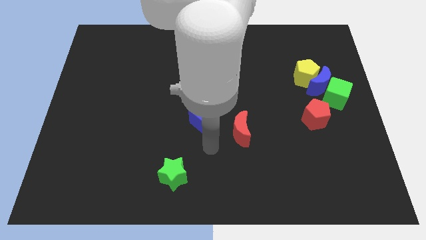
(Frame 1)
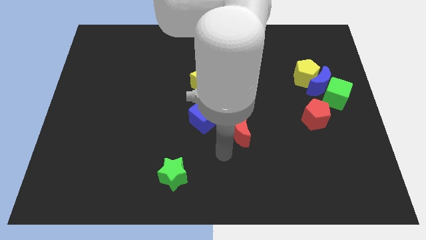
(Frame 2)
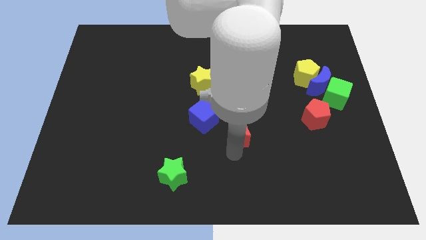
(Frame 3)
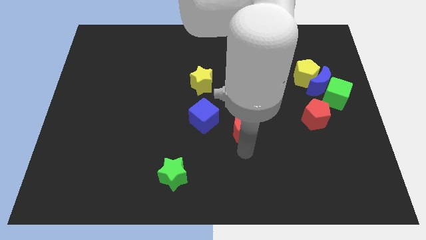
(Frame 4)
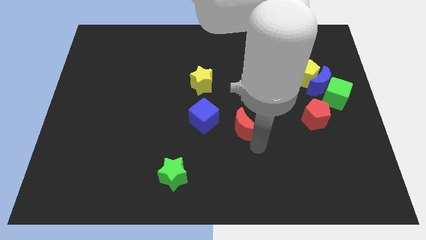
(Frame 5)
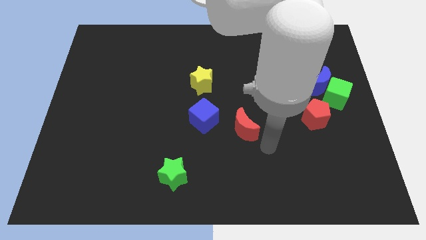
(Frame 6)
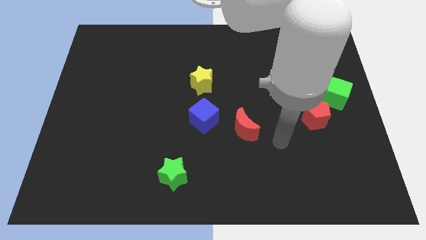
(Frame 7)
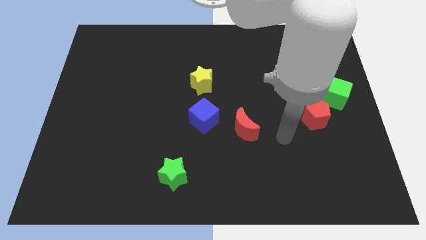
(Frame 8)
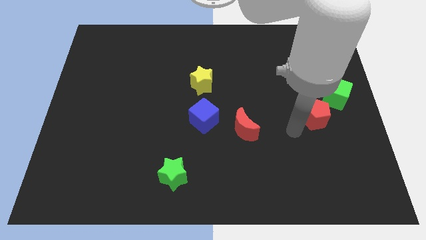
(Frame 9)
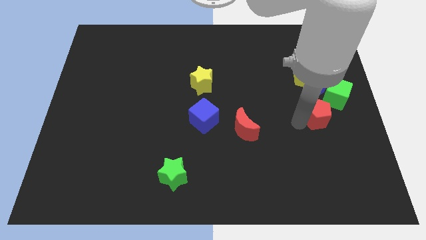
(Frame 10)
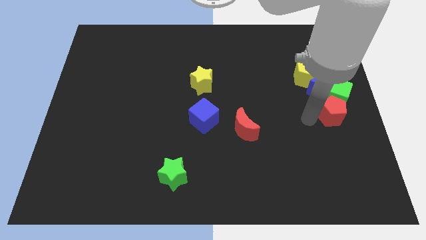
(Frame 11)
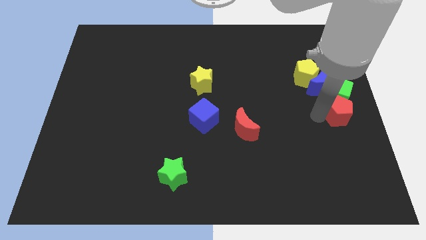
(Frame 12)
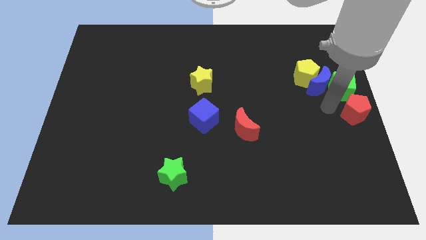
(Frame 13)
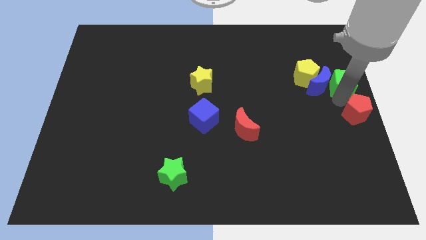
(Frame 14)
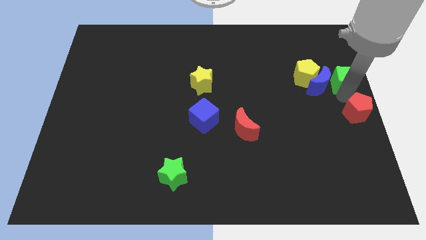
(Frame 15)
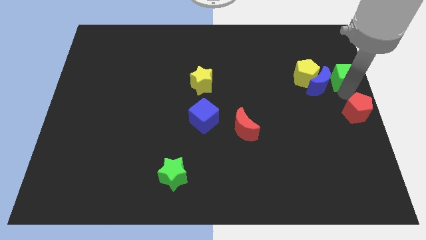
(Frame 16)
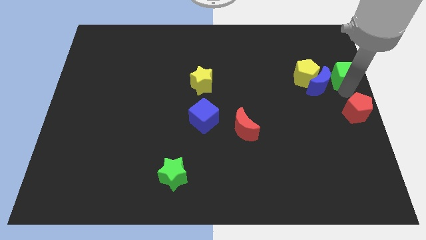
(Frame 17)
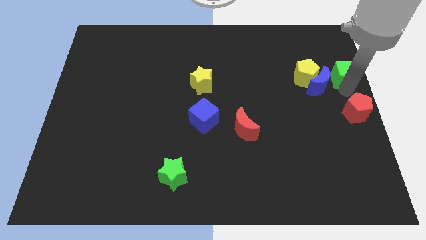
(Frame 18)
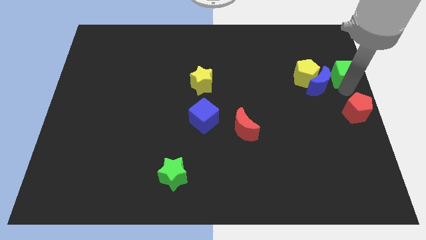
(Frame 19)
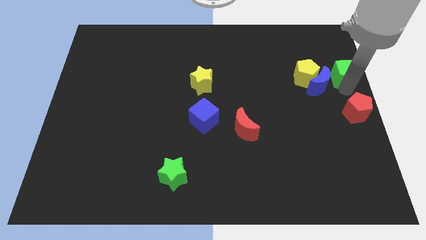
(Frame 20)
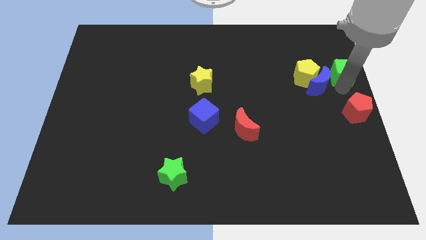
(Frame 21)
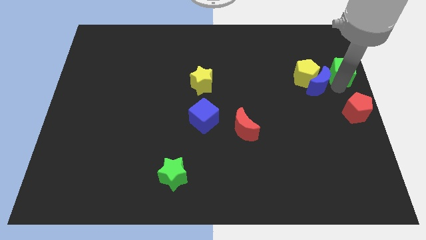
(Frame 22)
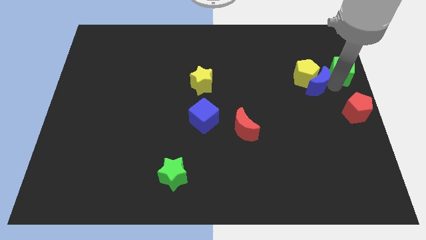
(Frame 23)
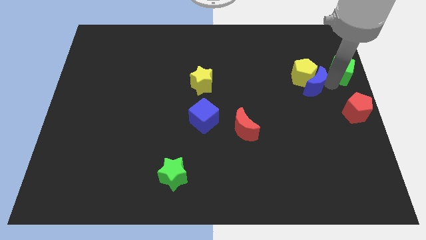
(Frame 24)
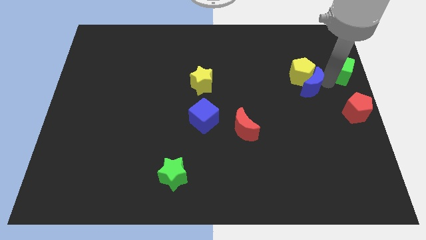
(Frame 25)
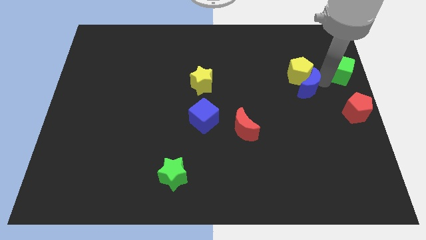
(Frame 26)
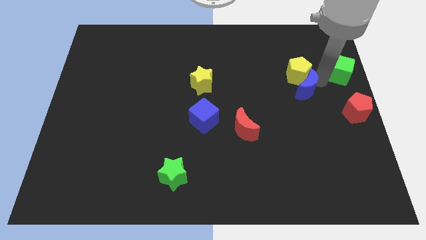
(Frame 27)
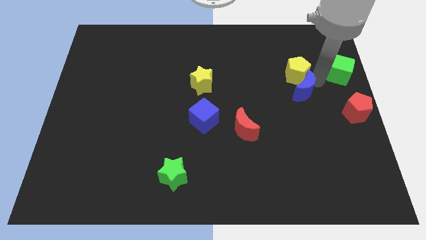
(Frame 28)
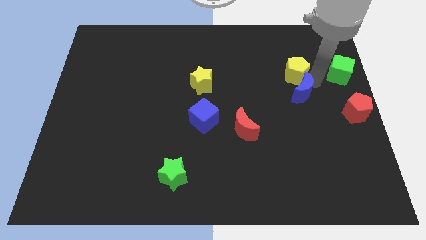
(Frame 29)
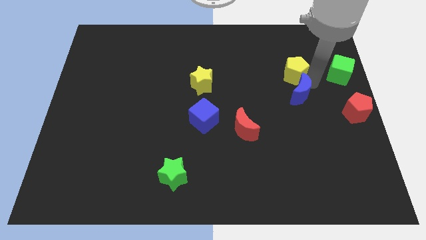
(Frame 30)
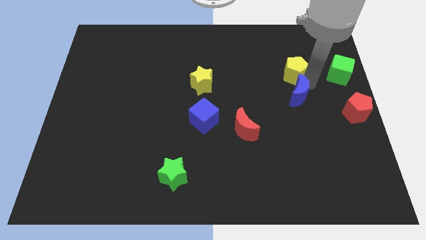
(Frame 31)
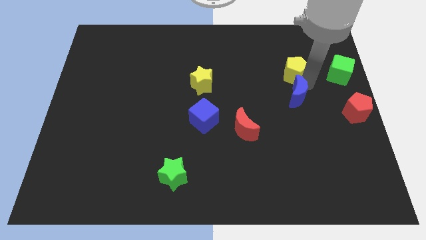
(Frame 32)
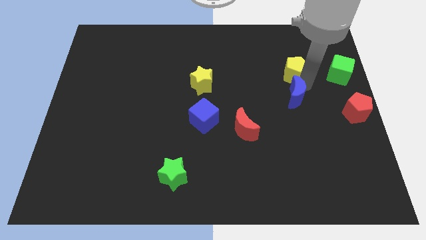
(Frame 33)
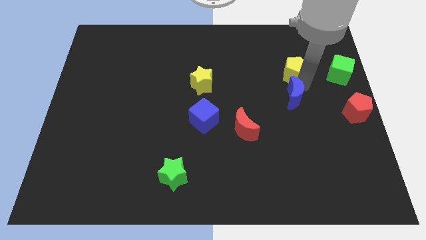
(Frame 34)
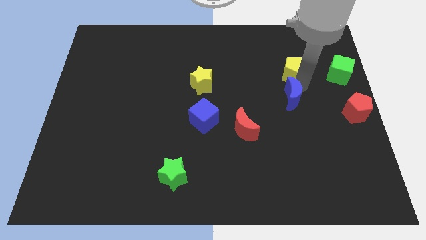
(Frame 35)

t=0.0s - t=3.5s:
pull the blue moon apart from the yellow pentagon, green cube, and red pentagon

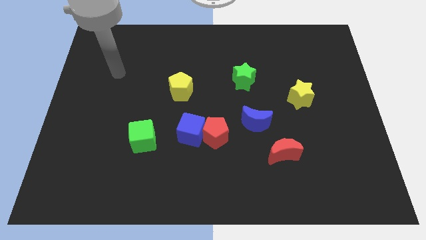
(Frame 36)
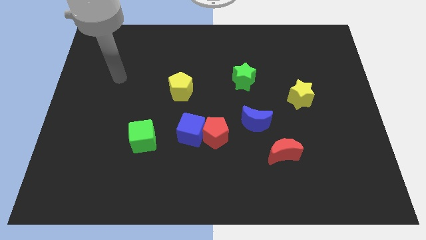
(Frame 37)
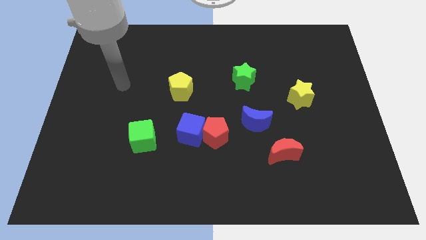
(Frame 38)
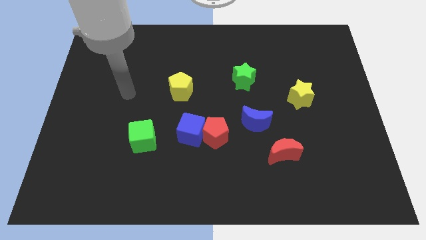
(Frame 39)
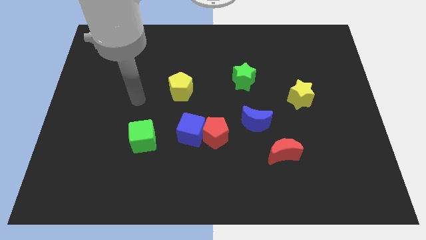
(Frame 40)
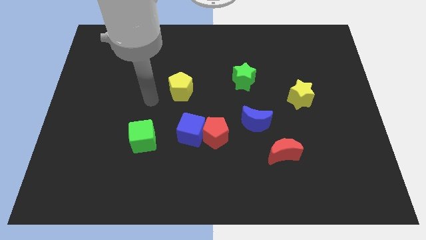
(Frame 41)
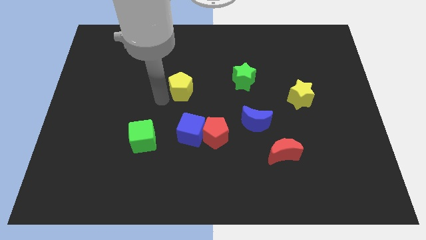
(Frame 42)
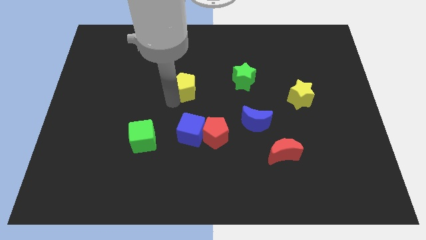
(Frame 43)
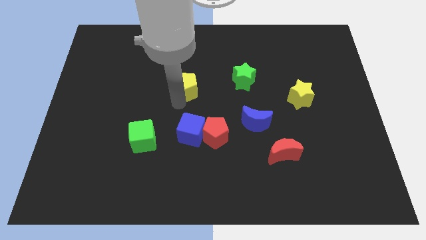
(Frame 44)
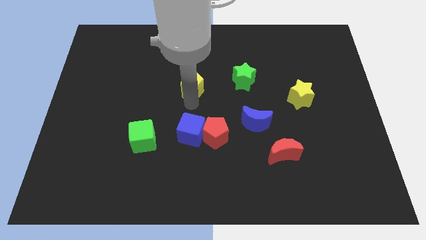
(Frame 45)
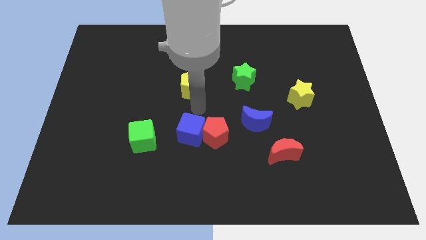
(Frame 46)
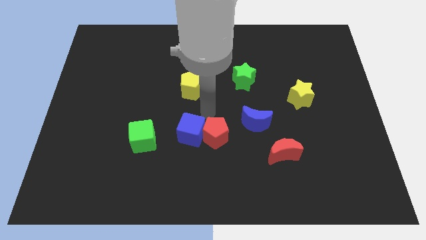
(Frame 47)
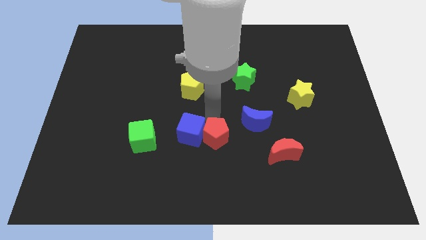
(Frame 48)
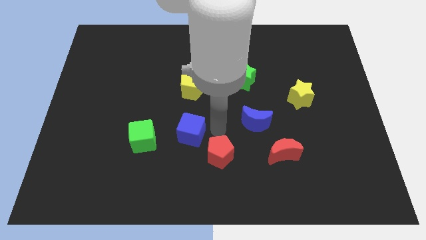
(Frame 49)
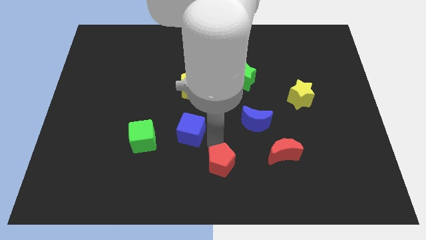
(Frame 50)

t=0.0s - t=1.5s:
separate the blue cube from the red pentagon

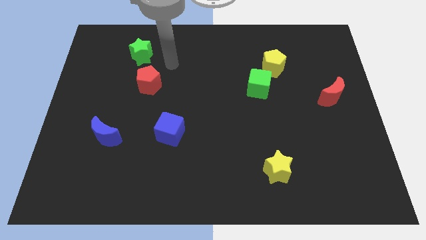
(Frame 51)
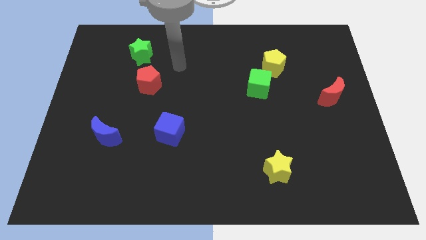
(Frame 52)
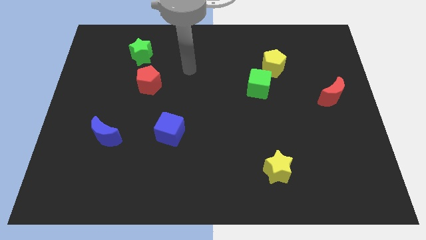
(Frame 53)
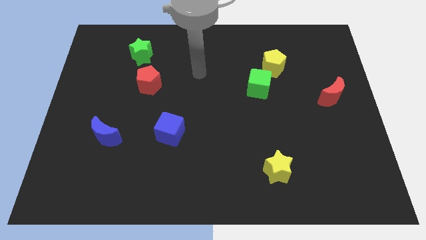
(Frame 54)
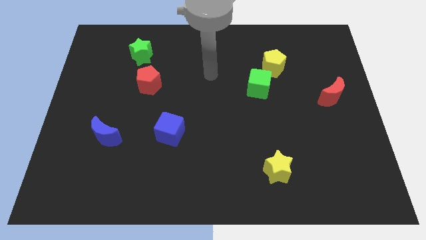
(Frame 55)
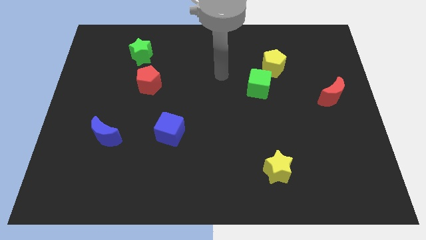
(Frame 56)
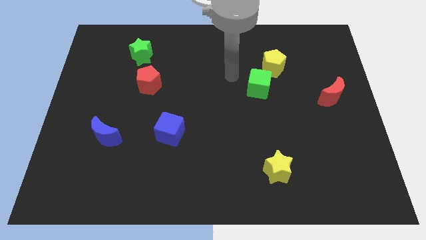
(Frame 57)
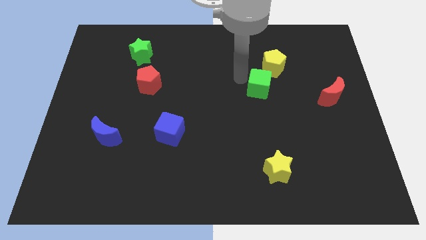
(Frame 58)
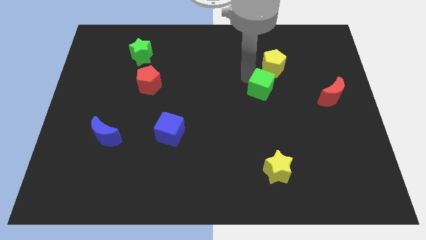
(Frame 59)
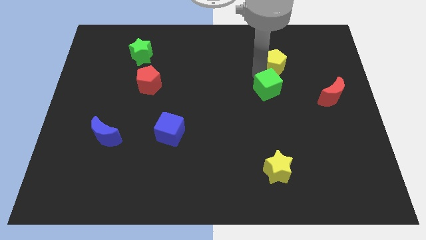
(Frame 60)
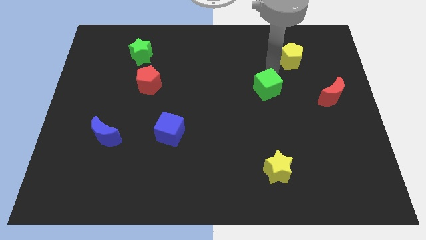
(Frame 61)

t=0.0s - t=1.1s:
move the green cube away from the yellow pentagon

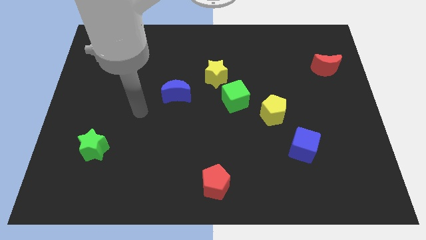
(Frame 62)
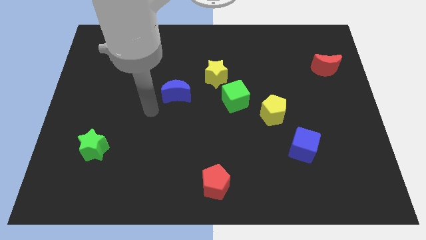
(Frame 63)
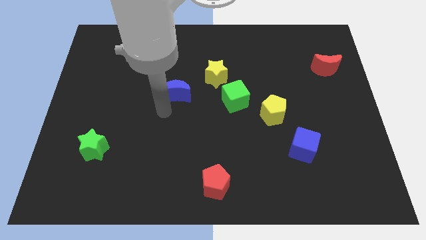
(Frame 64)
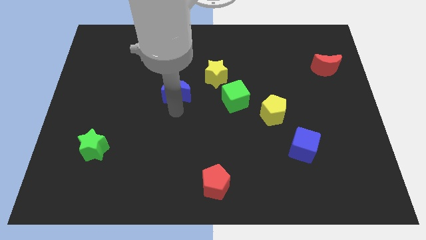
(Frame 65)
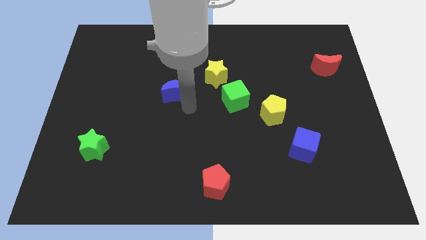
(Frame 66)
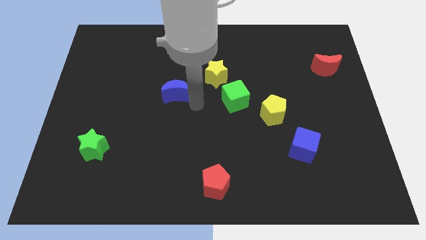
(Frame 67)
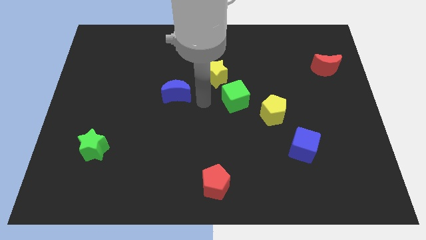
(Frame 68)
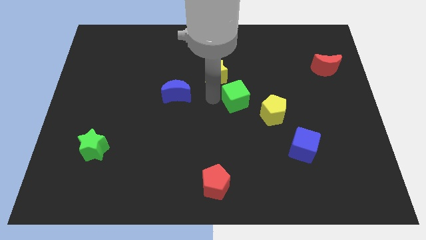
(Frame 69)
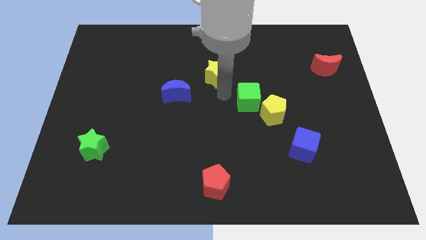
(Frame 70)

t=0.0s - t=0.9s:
pull the yellow star apart from the green cube

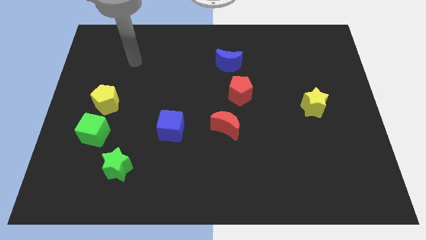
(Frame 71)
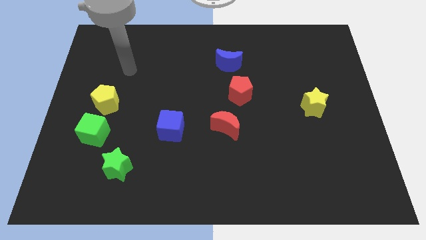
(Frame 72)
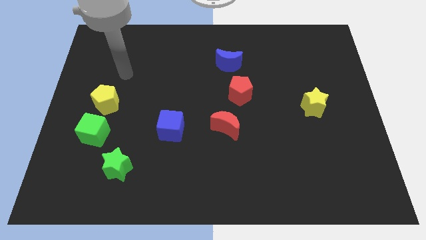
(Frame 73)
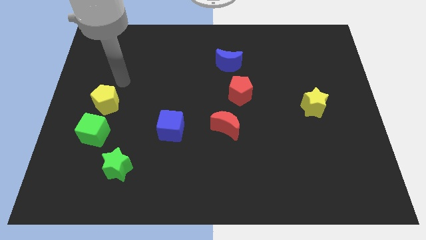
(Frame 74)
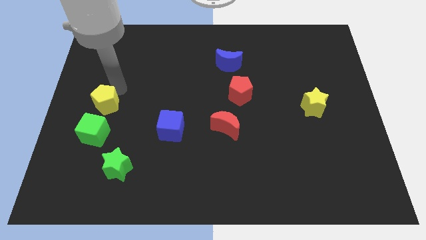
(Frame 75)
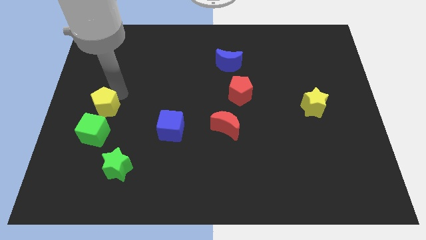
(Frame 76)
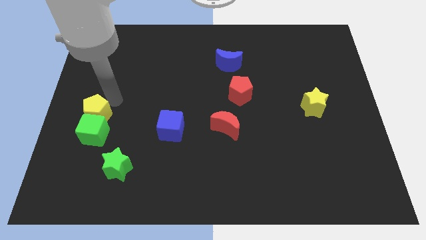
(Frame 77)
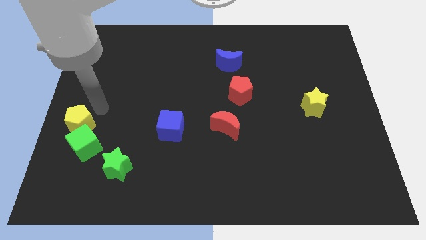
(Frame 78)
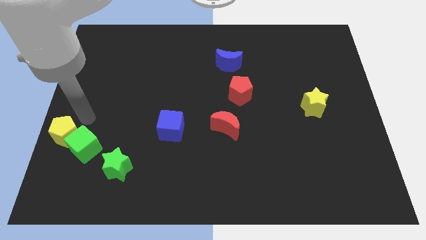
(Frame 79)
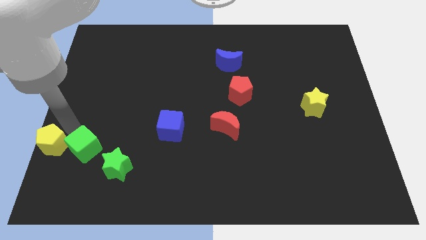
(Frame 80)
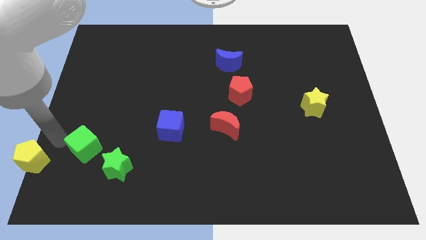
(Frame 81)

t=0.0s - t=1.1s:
separate the green cube from the yellow pentagon

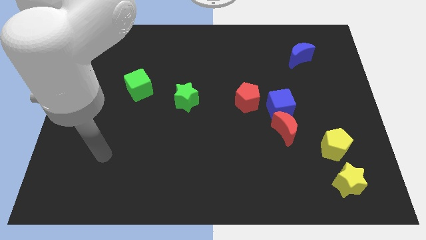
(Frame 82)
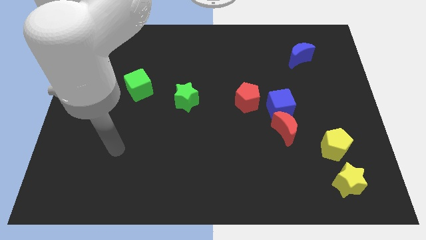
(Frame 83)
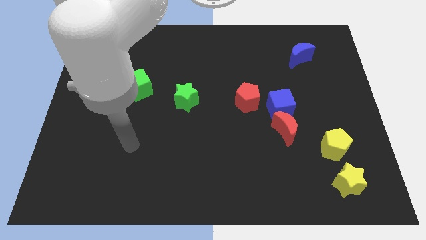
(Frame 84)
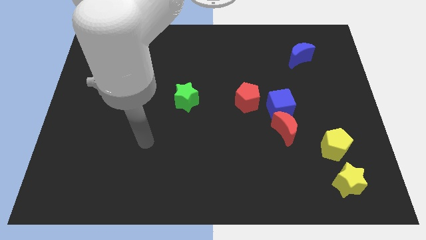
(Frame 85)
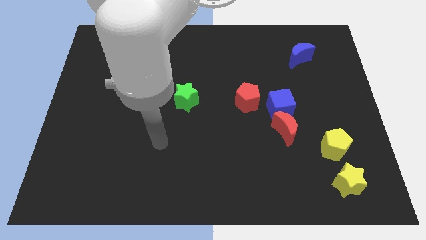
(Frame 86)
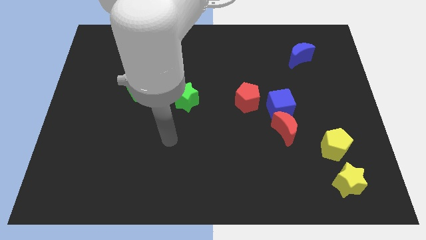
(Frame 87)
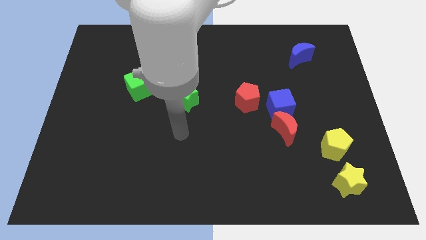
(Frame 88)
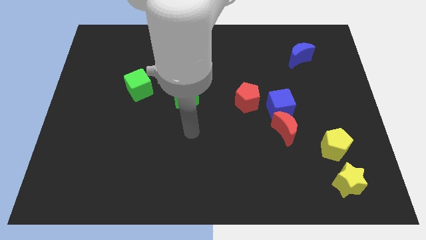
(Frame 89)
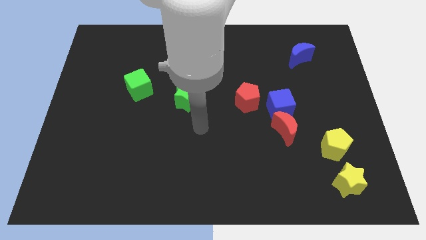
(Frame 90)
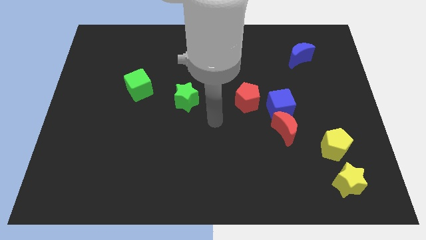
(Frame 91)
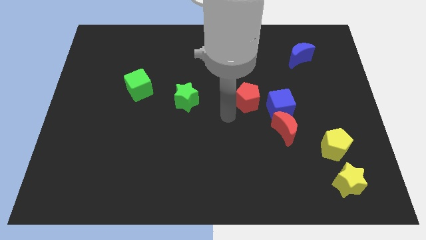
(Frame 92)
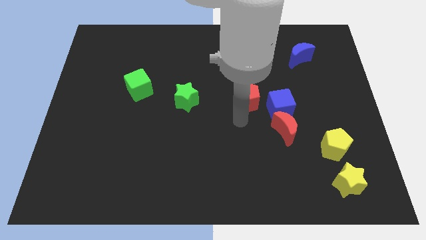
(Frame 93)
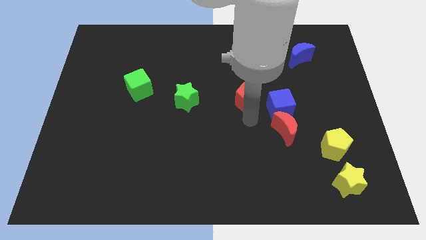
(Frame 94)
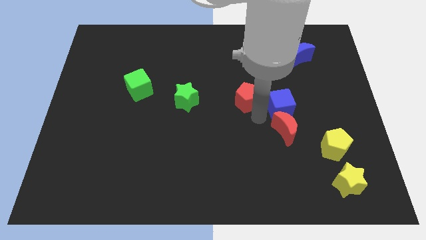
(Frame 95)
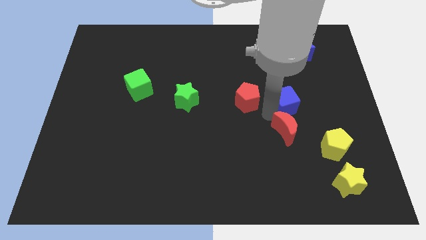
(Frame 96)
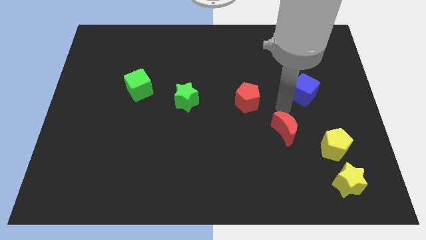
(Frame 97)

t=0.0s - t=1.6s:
pull the red moon apart from the blue cube
